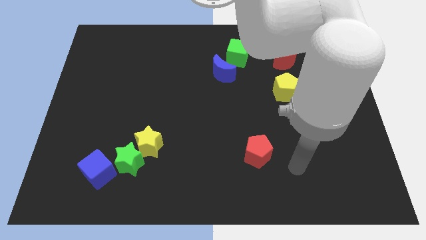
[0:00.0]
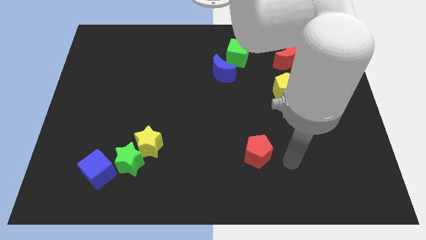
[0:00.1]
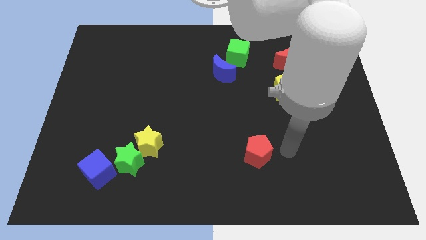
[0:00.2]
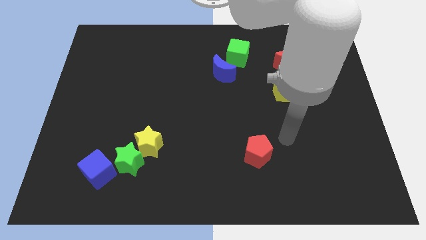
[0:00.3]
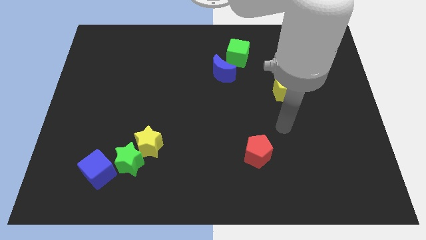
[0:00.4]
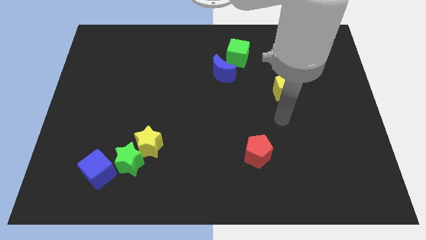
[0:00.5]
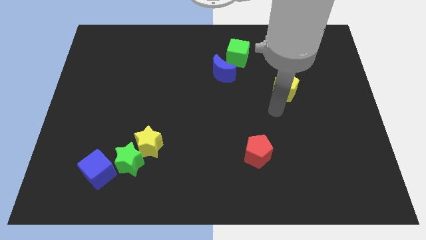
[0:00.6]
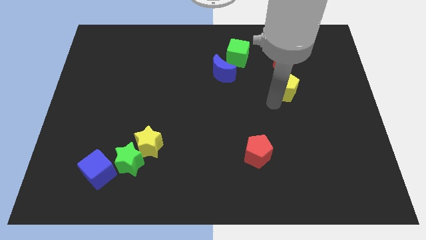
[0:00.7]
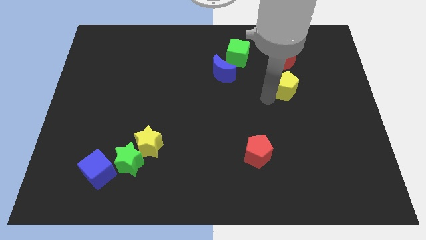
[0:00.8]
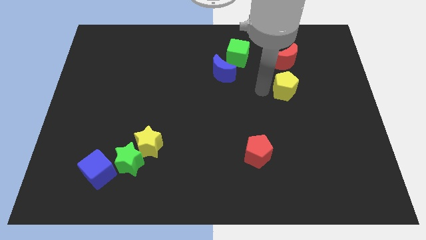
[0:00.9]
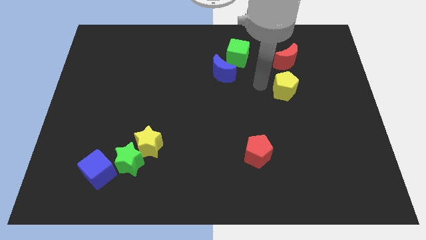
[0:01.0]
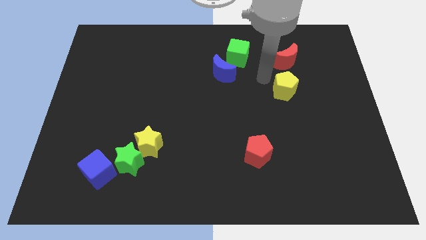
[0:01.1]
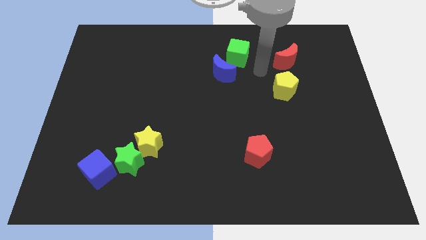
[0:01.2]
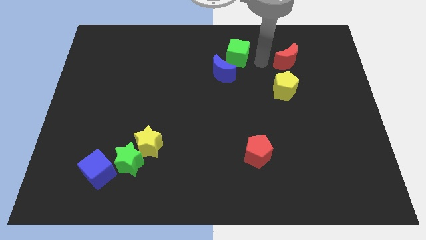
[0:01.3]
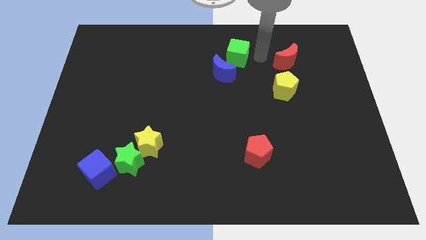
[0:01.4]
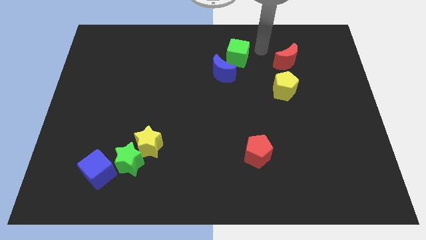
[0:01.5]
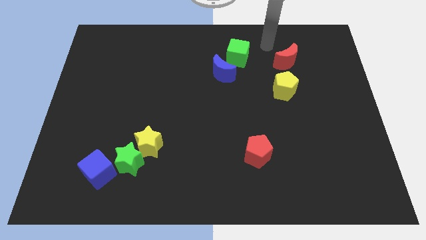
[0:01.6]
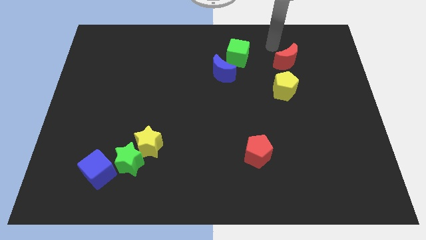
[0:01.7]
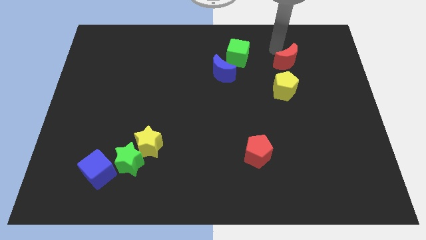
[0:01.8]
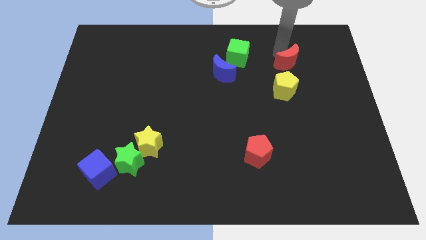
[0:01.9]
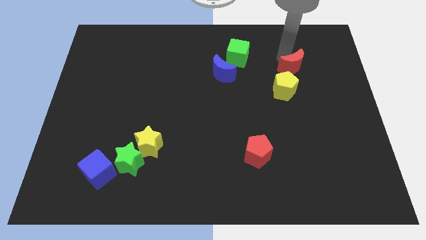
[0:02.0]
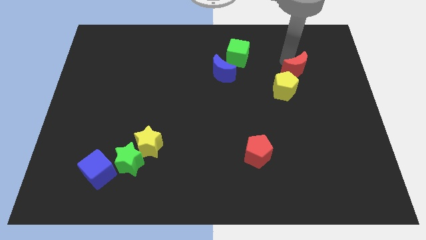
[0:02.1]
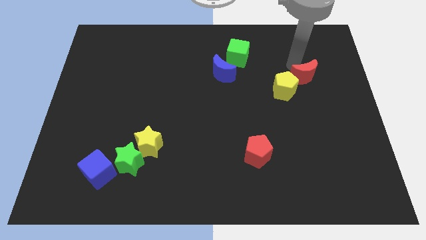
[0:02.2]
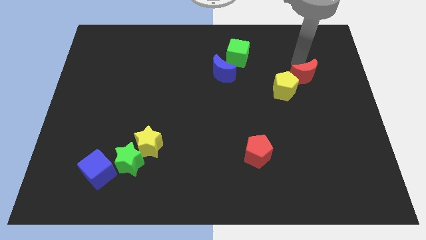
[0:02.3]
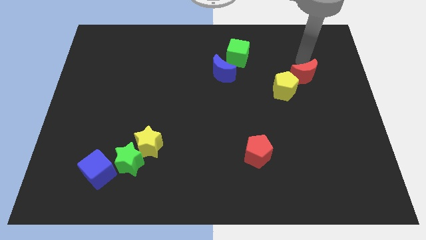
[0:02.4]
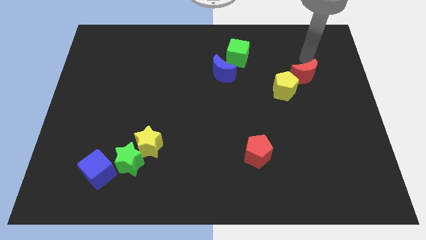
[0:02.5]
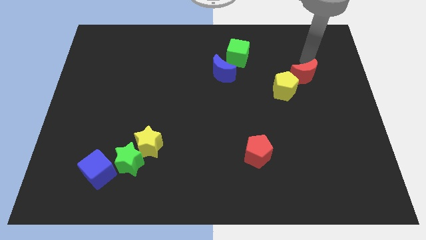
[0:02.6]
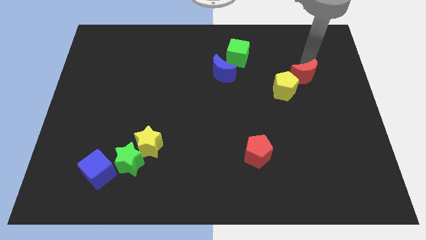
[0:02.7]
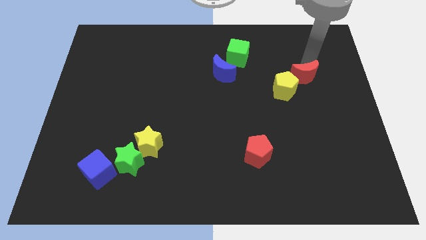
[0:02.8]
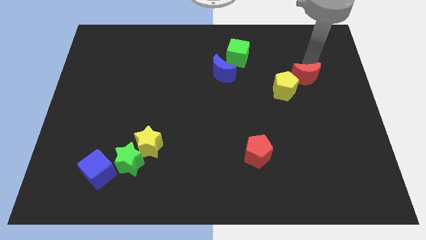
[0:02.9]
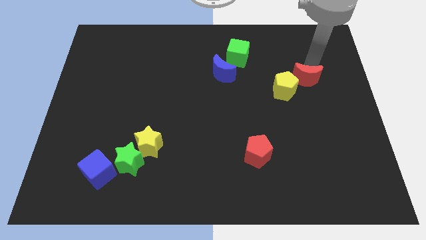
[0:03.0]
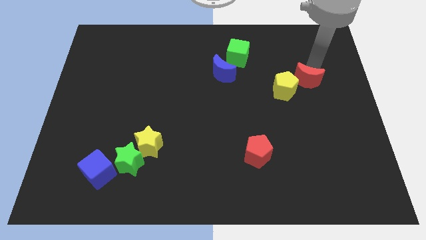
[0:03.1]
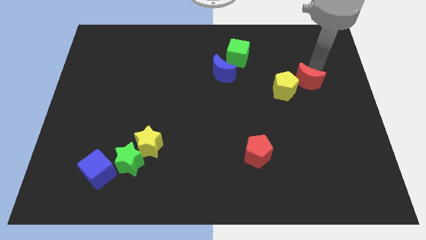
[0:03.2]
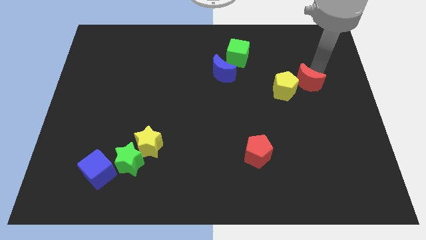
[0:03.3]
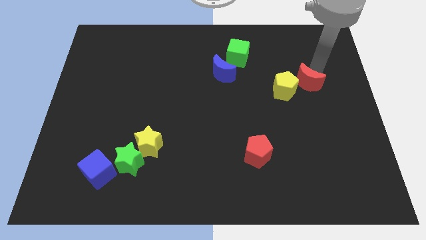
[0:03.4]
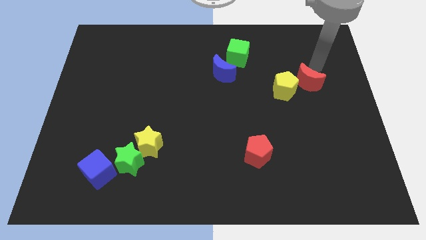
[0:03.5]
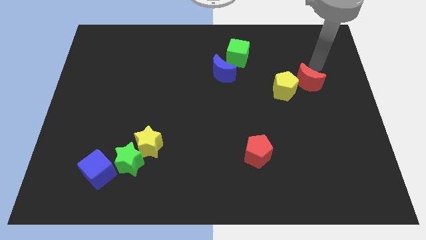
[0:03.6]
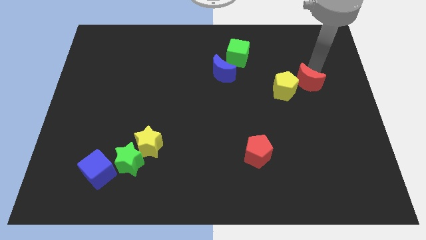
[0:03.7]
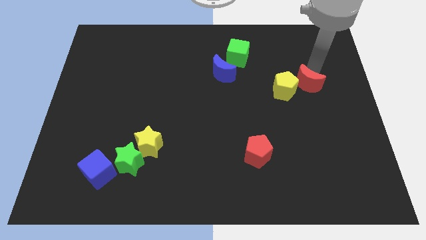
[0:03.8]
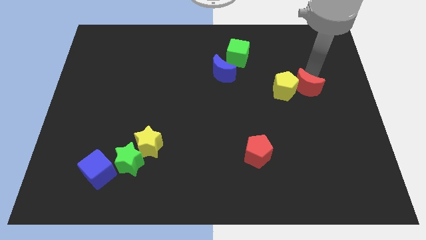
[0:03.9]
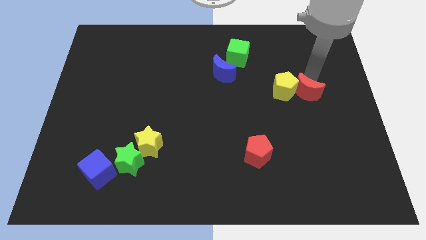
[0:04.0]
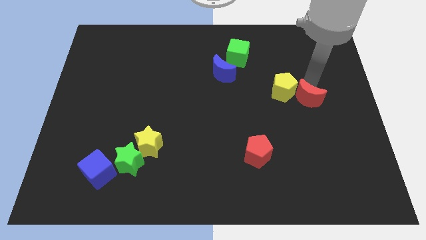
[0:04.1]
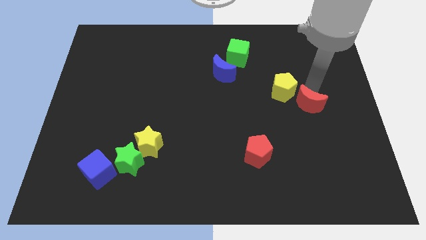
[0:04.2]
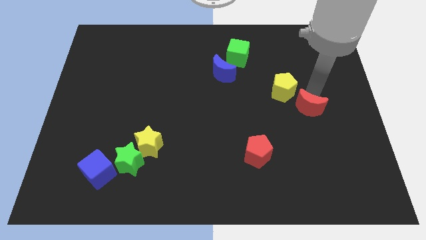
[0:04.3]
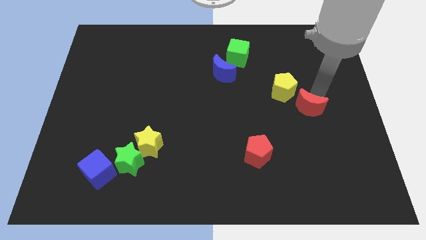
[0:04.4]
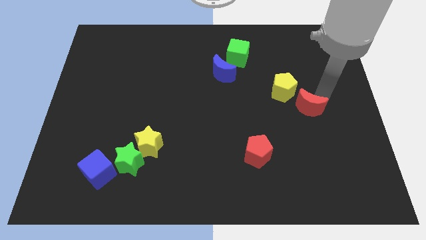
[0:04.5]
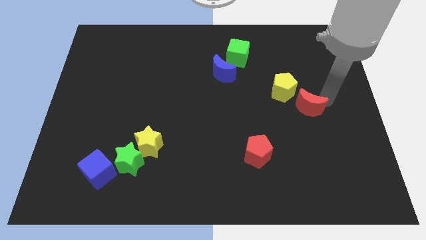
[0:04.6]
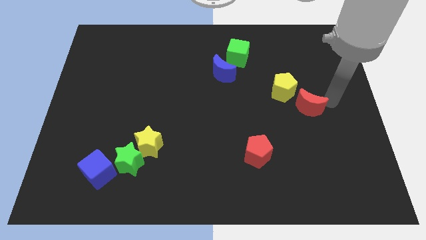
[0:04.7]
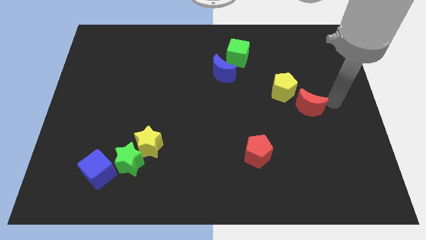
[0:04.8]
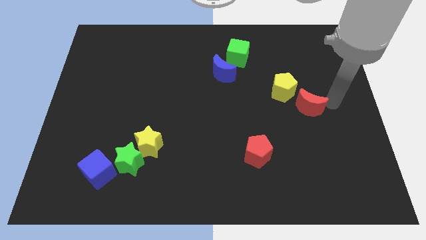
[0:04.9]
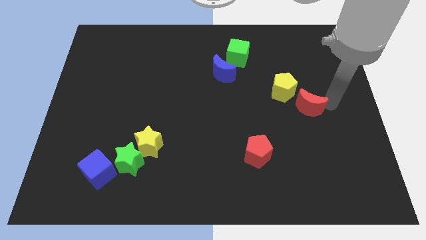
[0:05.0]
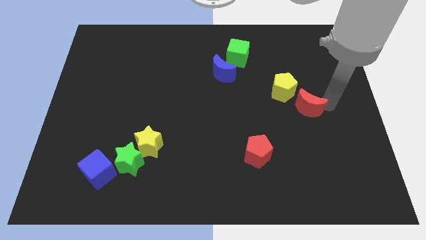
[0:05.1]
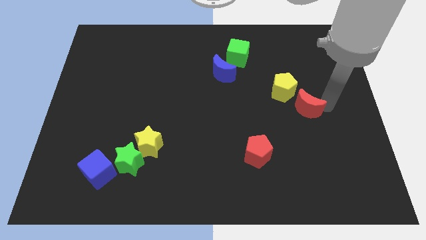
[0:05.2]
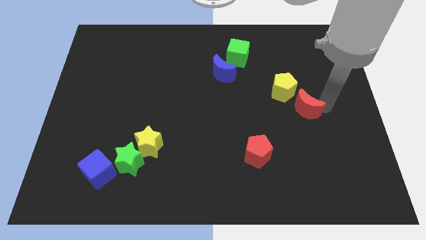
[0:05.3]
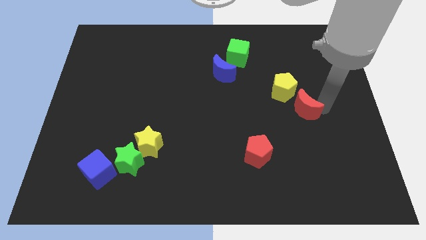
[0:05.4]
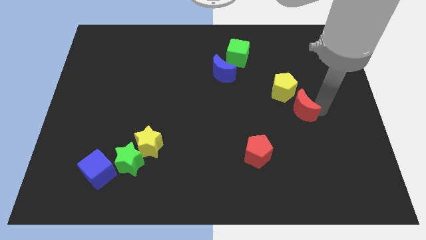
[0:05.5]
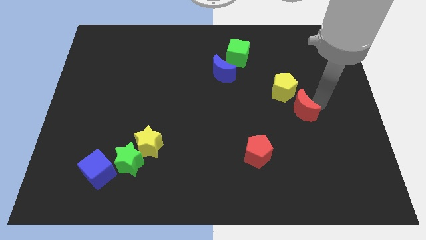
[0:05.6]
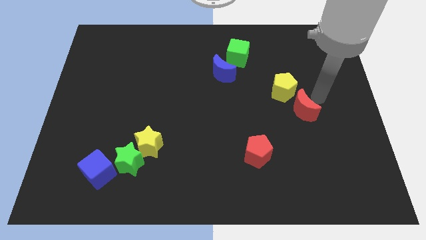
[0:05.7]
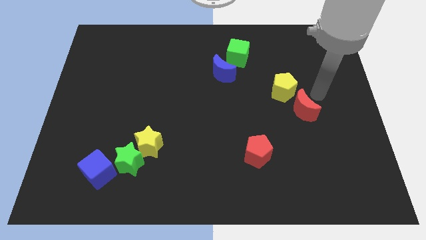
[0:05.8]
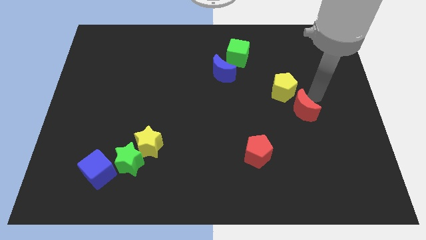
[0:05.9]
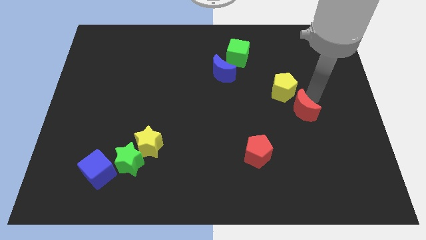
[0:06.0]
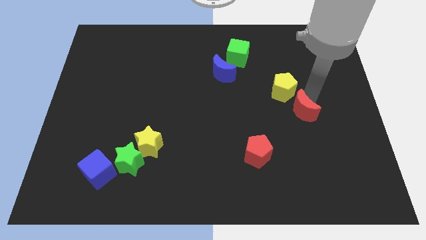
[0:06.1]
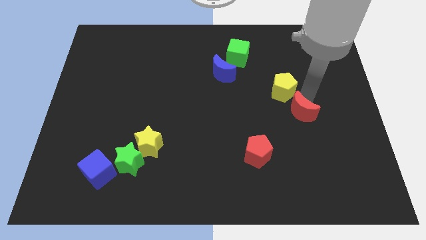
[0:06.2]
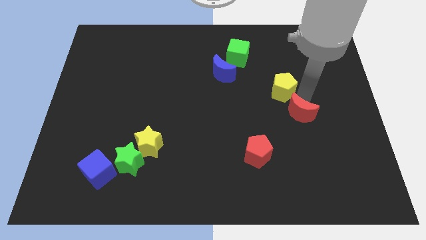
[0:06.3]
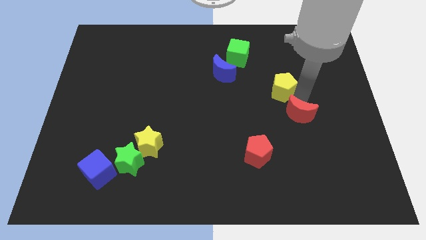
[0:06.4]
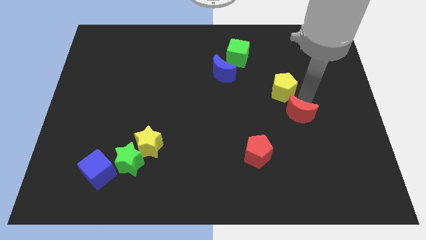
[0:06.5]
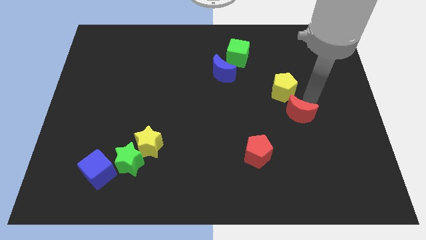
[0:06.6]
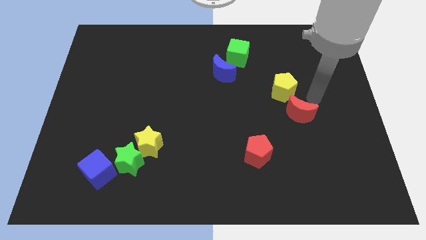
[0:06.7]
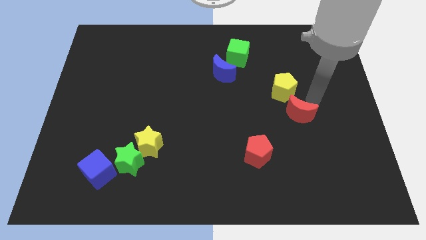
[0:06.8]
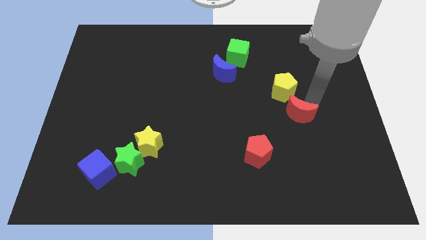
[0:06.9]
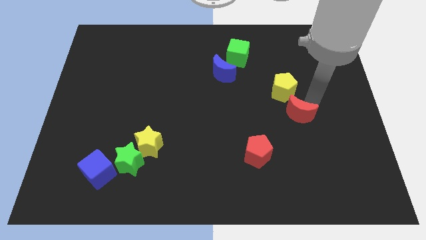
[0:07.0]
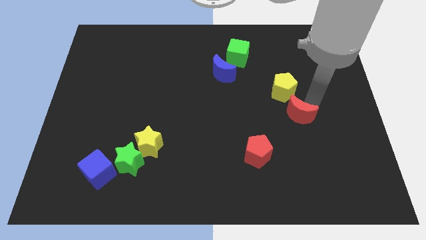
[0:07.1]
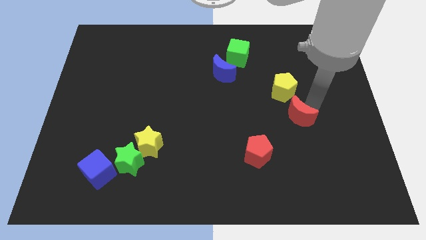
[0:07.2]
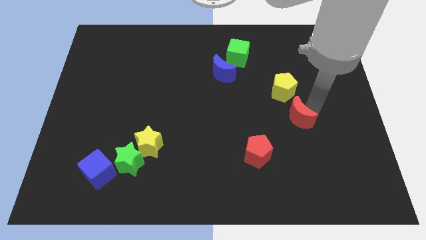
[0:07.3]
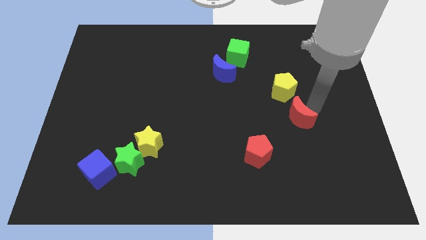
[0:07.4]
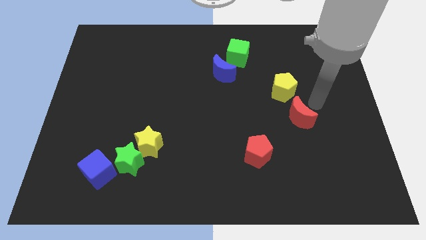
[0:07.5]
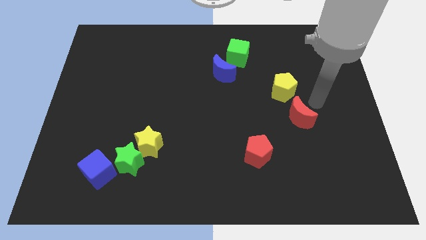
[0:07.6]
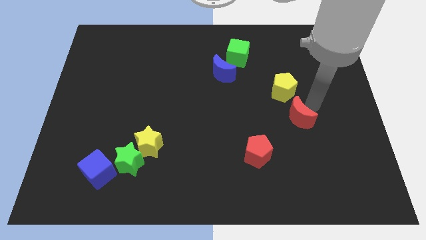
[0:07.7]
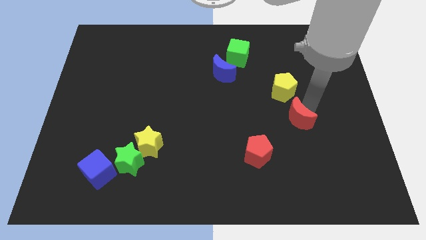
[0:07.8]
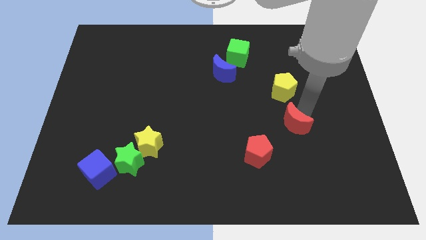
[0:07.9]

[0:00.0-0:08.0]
slide the red moon diagonally up and to the right of the red pentagon
